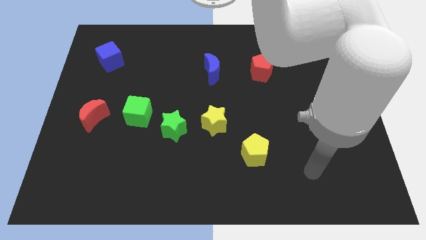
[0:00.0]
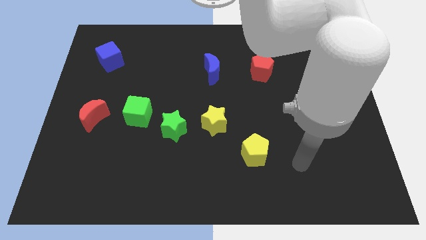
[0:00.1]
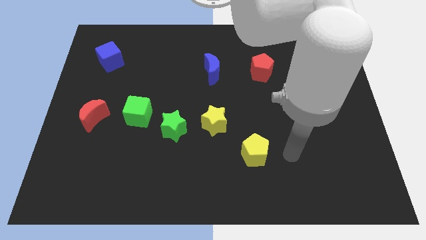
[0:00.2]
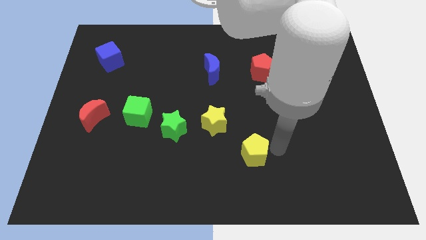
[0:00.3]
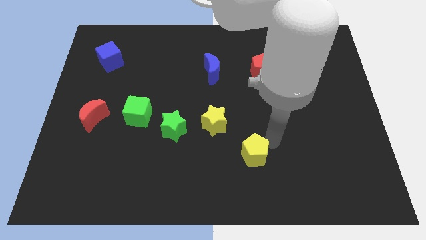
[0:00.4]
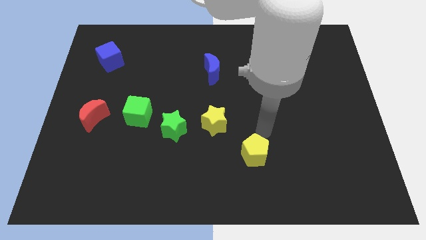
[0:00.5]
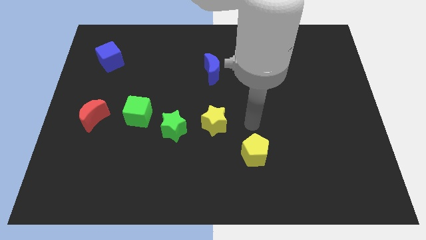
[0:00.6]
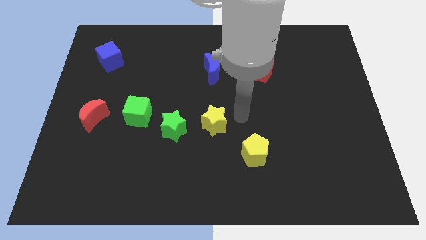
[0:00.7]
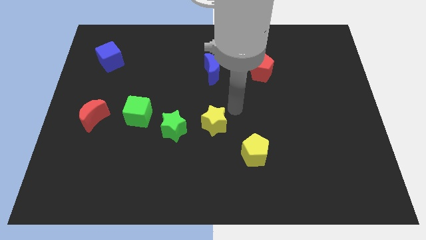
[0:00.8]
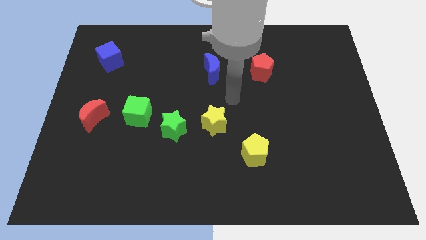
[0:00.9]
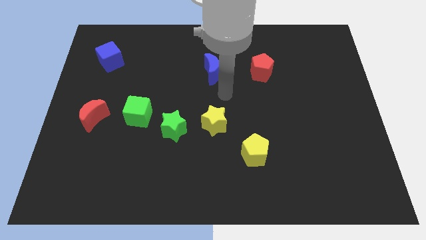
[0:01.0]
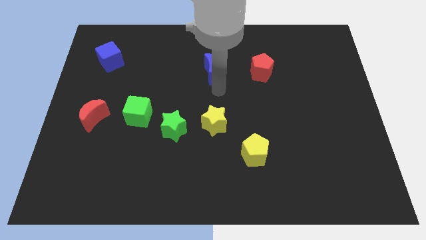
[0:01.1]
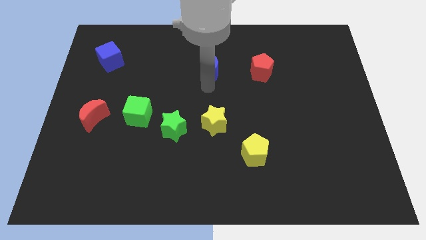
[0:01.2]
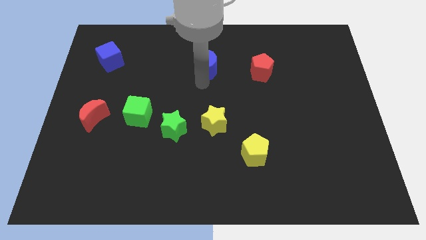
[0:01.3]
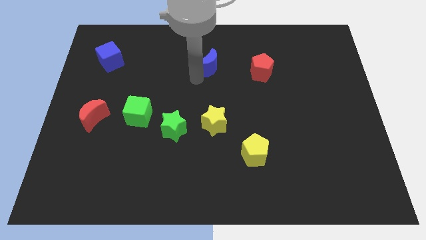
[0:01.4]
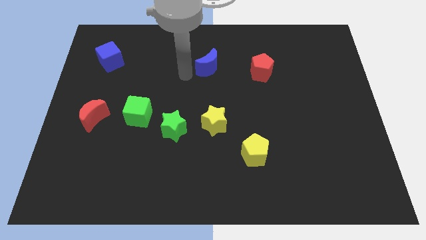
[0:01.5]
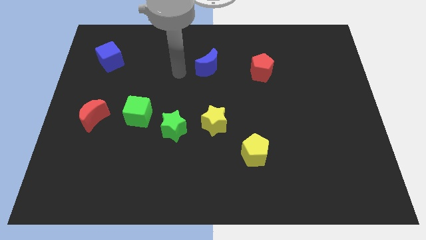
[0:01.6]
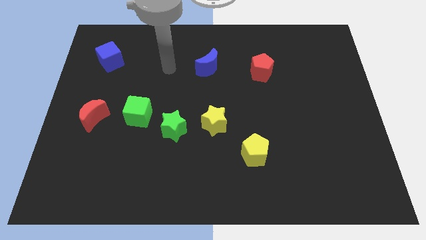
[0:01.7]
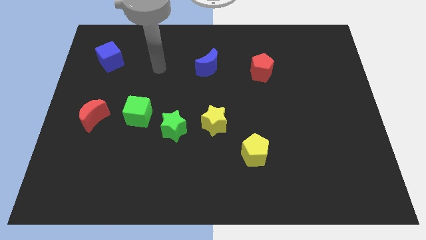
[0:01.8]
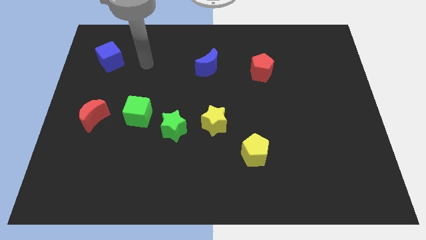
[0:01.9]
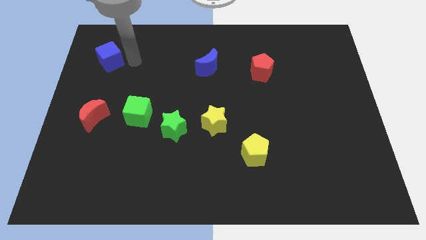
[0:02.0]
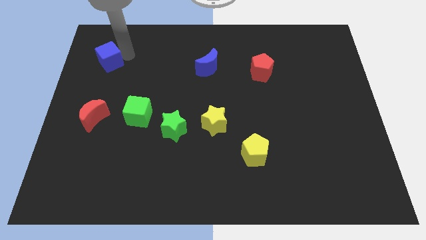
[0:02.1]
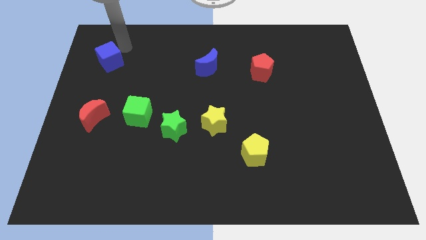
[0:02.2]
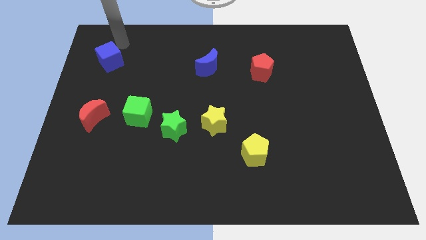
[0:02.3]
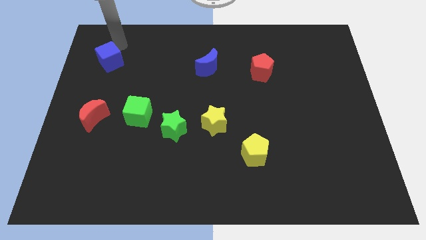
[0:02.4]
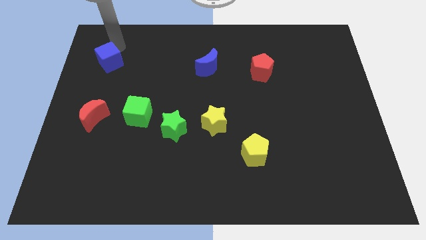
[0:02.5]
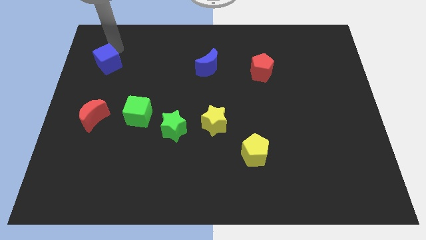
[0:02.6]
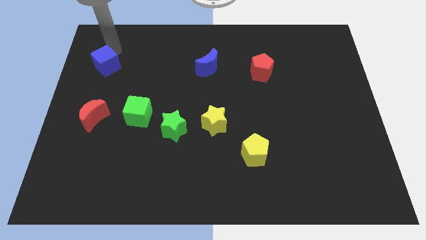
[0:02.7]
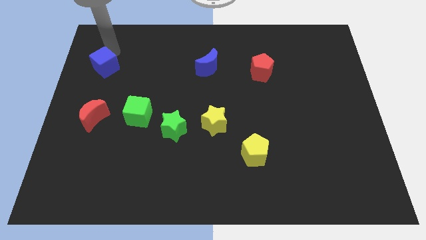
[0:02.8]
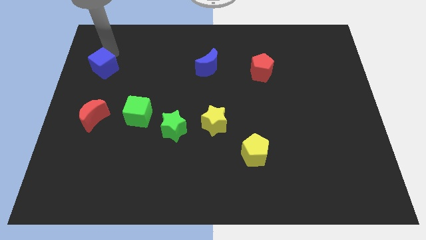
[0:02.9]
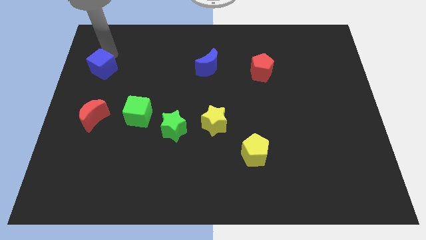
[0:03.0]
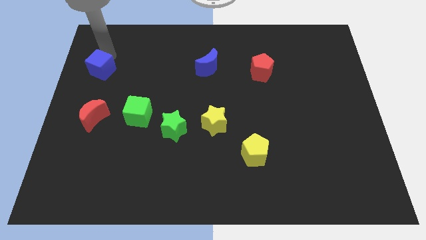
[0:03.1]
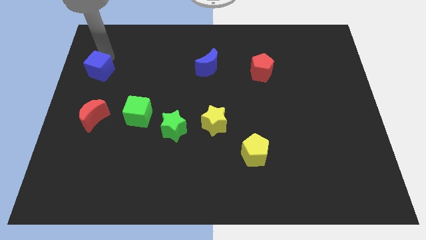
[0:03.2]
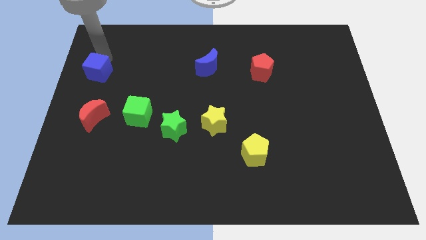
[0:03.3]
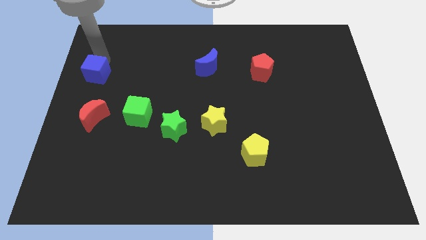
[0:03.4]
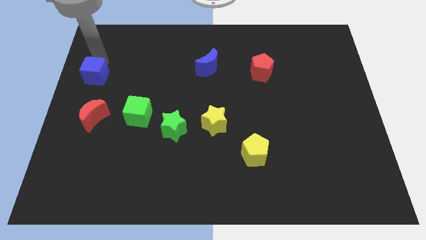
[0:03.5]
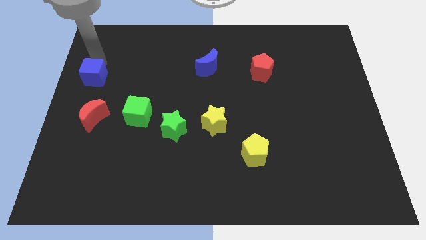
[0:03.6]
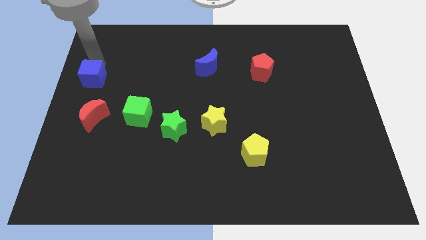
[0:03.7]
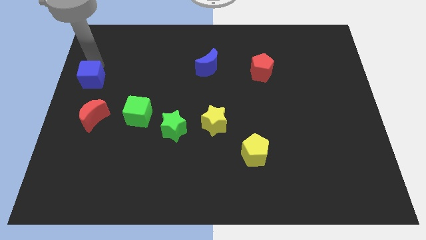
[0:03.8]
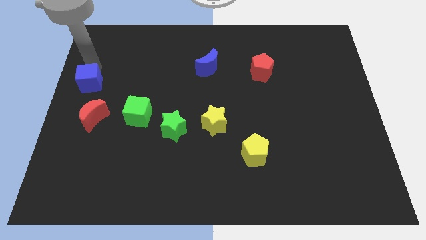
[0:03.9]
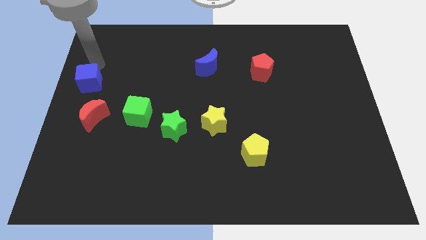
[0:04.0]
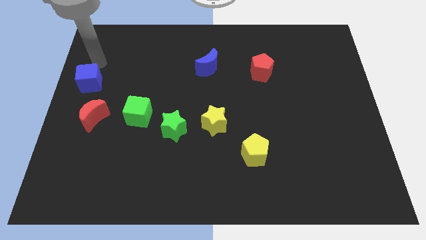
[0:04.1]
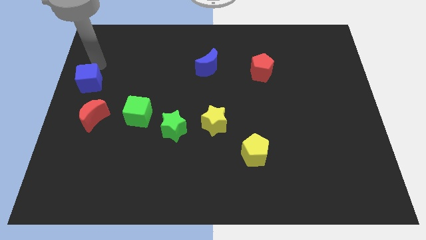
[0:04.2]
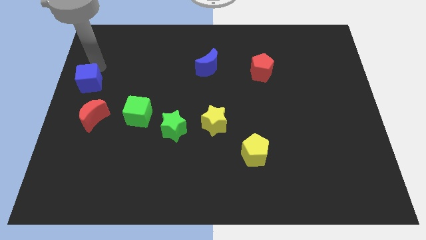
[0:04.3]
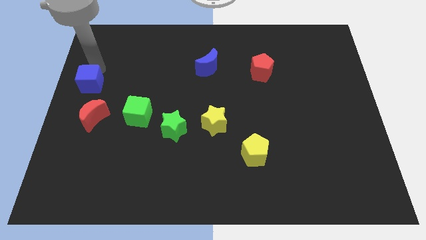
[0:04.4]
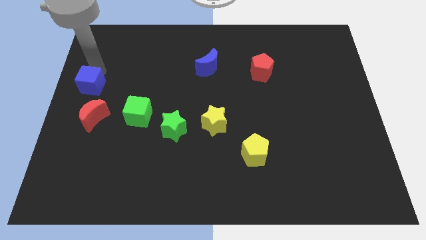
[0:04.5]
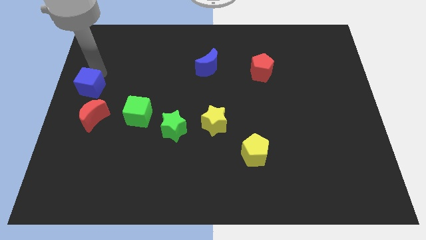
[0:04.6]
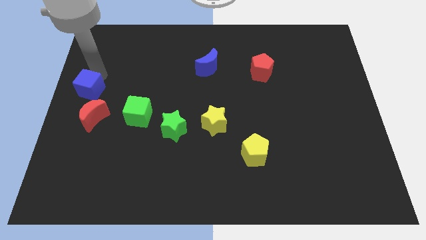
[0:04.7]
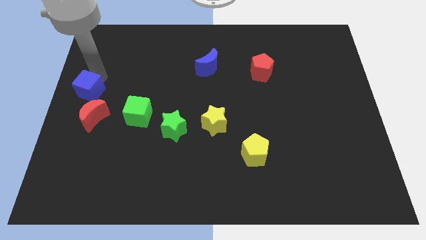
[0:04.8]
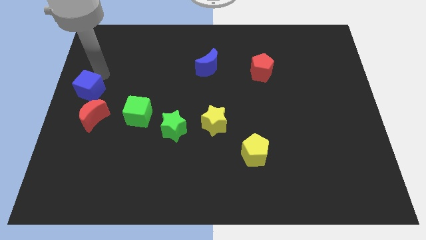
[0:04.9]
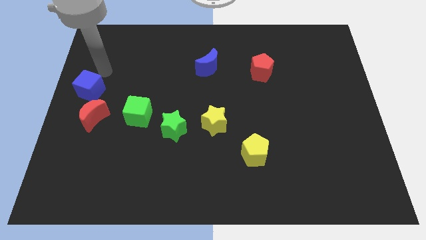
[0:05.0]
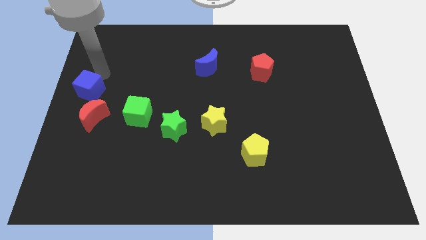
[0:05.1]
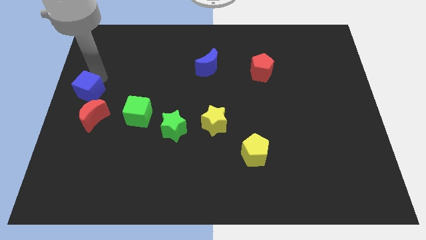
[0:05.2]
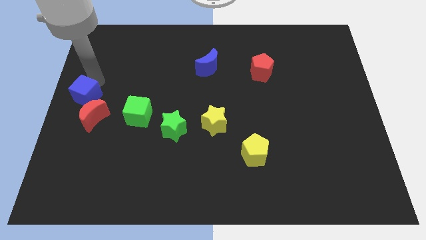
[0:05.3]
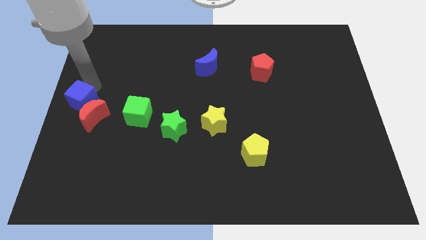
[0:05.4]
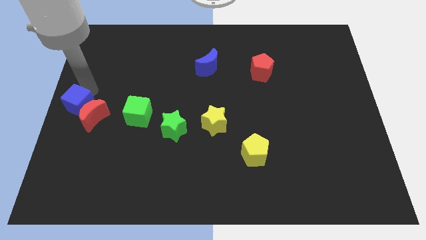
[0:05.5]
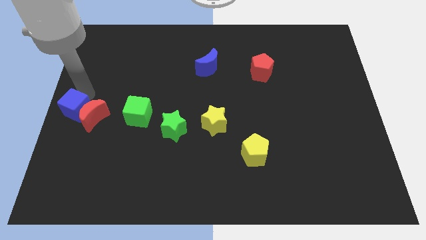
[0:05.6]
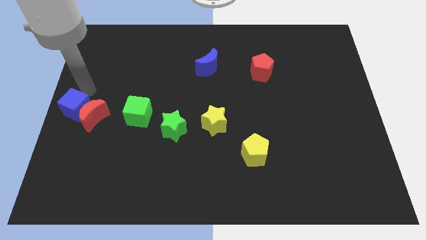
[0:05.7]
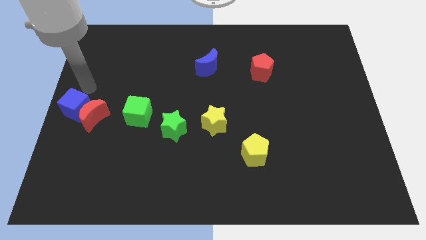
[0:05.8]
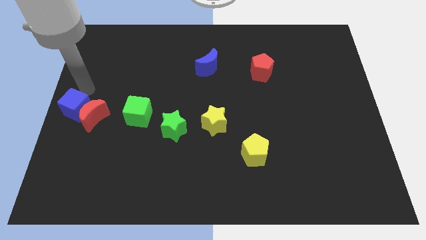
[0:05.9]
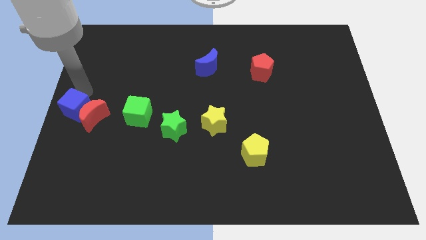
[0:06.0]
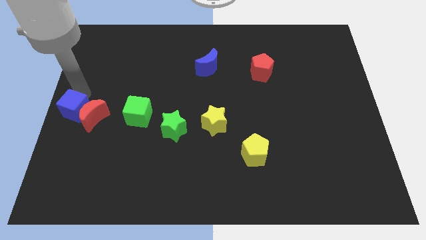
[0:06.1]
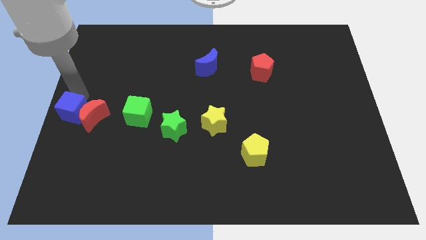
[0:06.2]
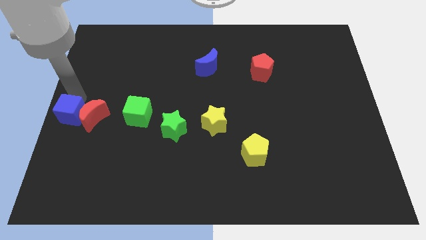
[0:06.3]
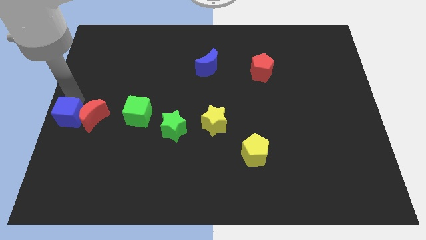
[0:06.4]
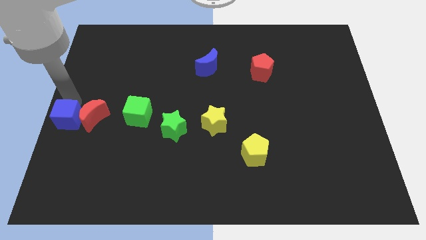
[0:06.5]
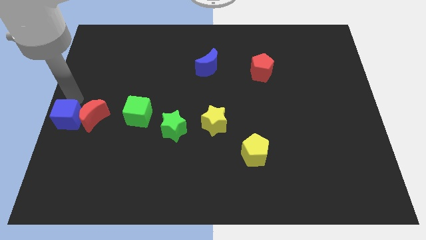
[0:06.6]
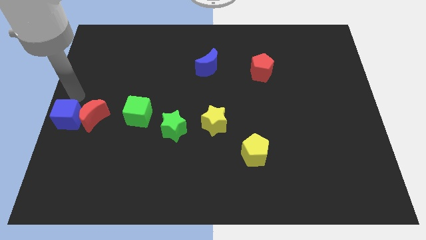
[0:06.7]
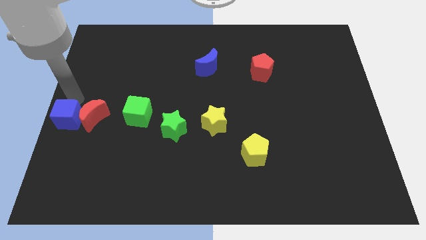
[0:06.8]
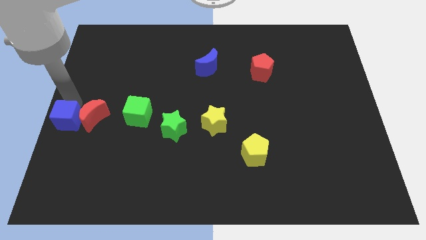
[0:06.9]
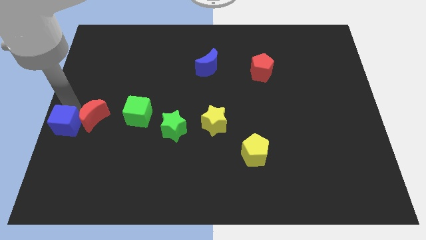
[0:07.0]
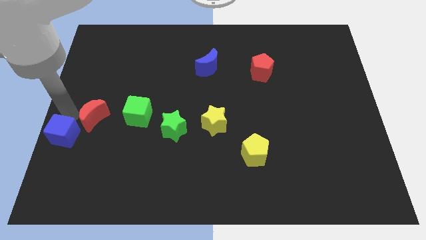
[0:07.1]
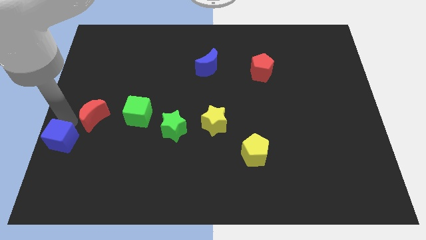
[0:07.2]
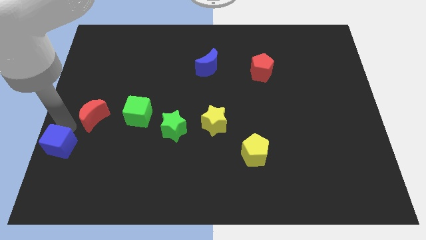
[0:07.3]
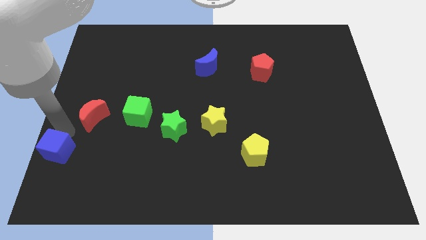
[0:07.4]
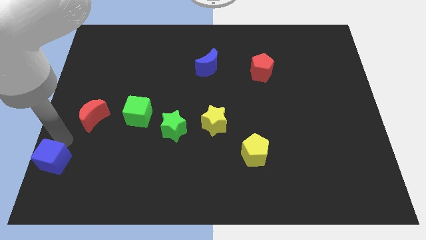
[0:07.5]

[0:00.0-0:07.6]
push the blue cube to the bottom left corner
